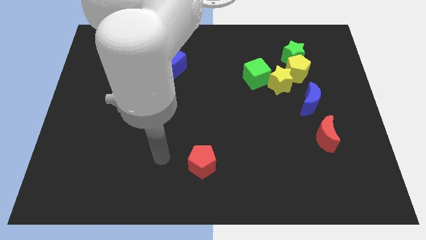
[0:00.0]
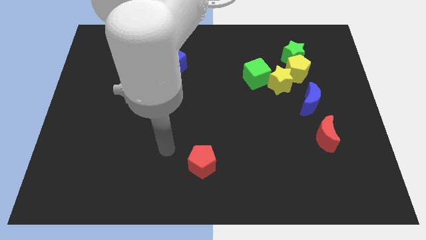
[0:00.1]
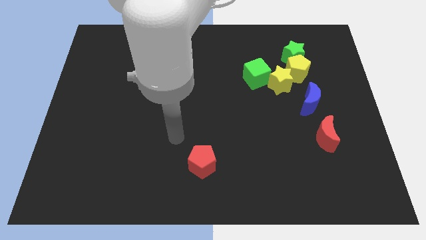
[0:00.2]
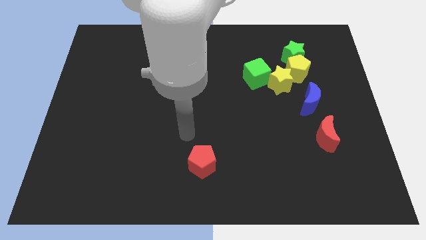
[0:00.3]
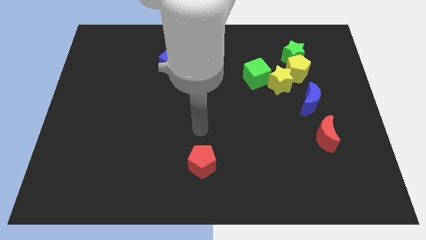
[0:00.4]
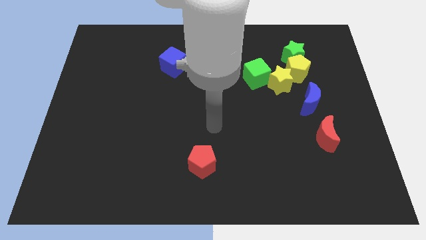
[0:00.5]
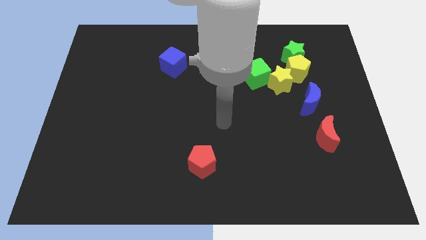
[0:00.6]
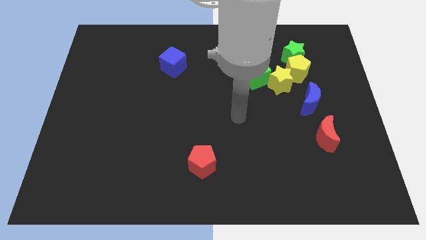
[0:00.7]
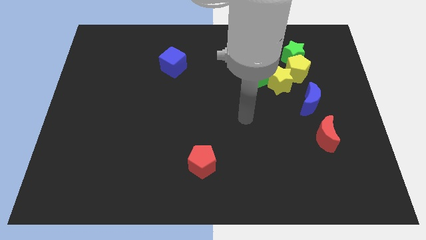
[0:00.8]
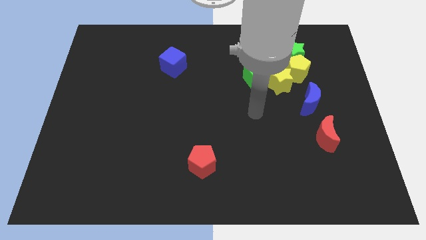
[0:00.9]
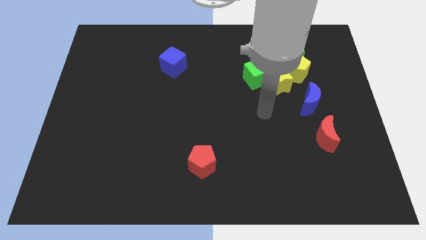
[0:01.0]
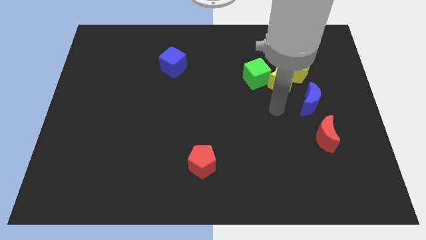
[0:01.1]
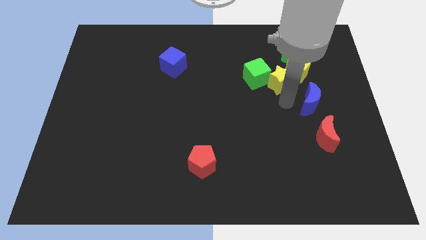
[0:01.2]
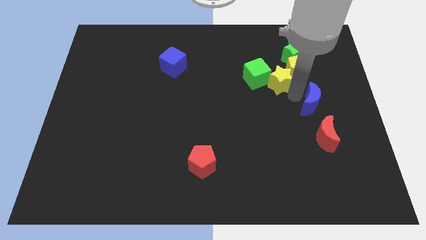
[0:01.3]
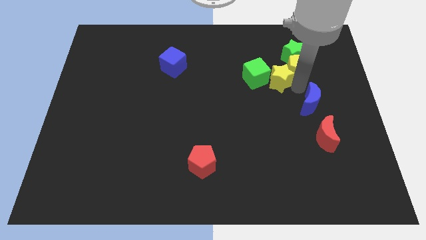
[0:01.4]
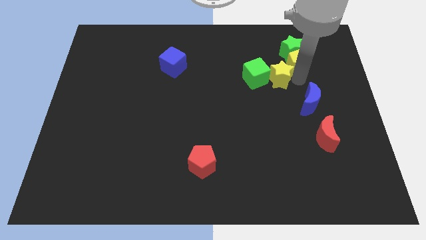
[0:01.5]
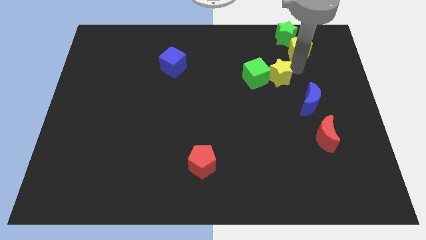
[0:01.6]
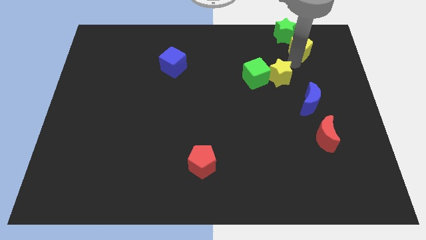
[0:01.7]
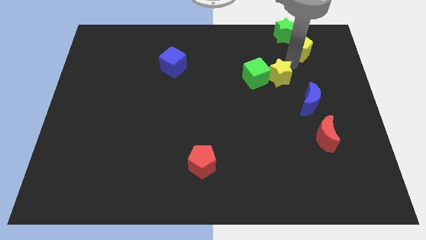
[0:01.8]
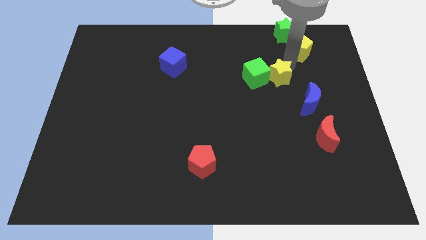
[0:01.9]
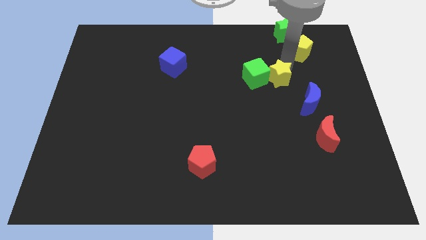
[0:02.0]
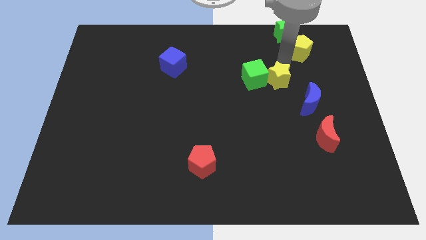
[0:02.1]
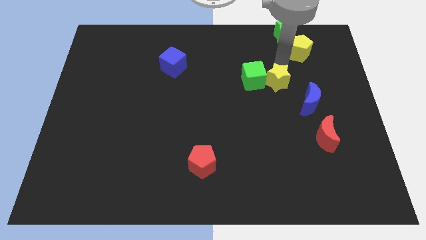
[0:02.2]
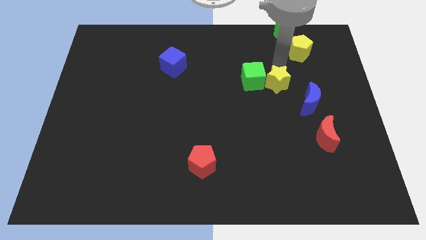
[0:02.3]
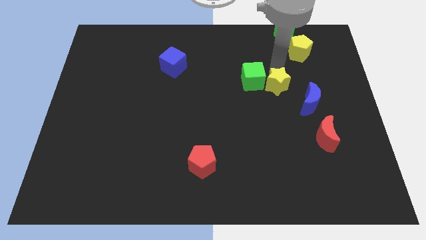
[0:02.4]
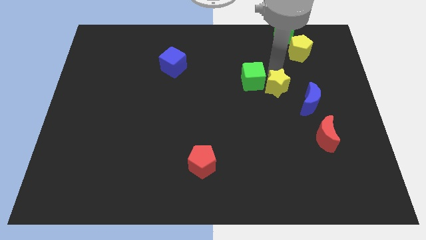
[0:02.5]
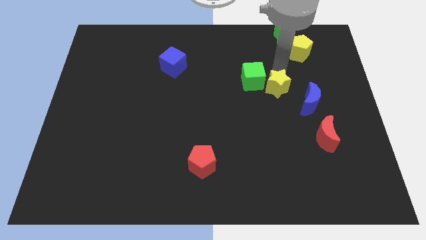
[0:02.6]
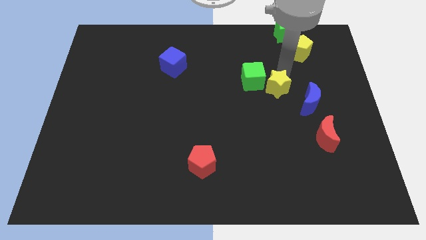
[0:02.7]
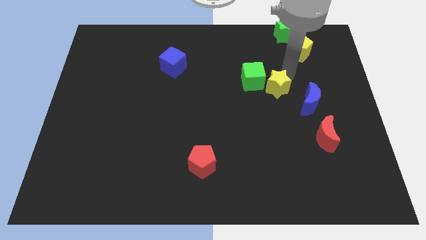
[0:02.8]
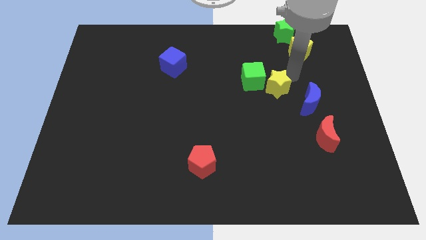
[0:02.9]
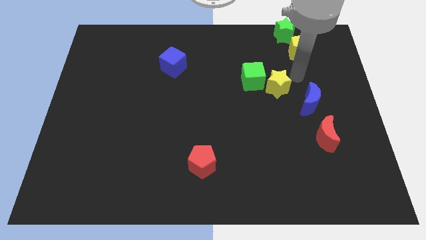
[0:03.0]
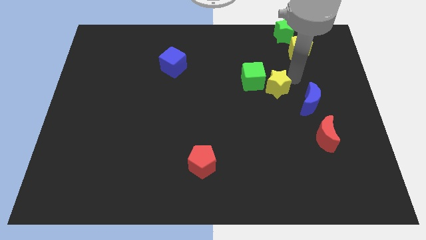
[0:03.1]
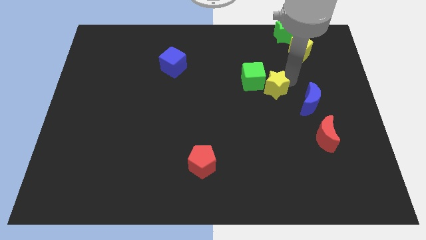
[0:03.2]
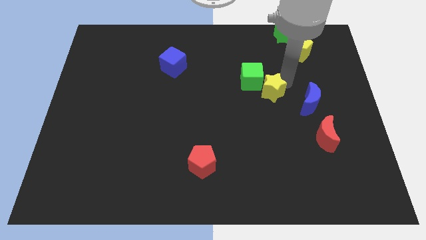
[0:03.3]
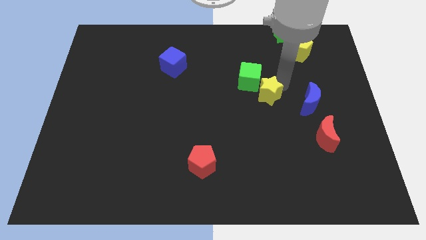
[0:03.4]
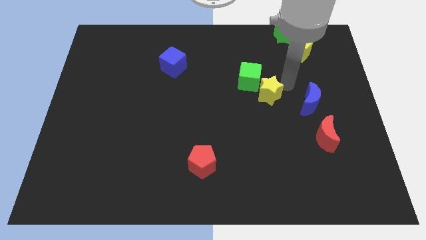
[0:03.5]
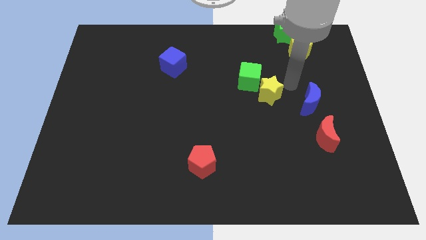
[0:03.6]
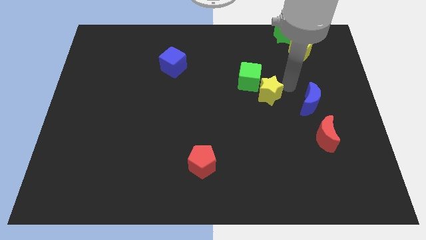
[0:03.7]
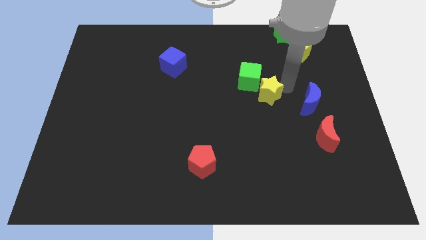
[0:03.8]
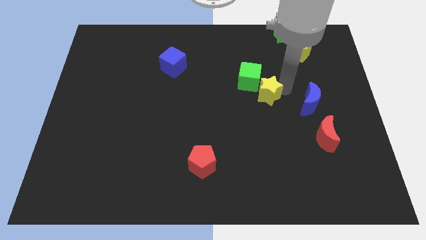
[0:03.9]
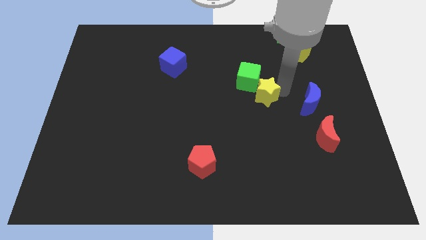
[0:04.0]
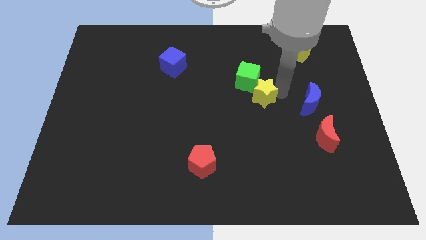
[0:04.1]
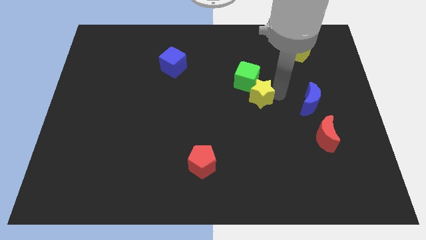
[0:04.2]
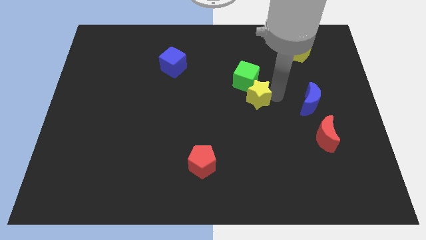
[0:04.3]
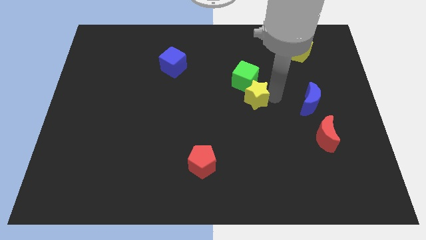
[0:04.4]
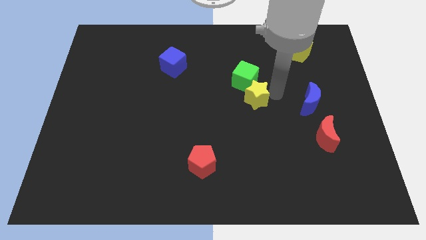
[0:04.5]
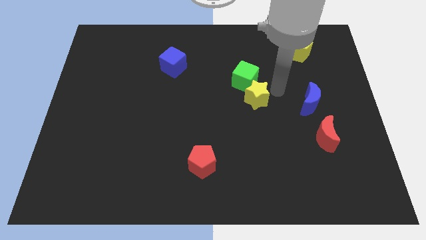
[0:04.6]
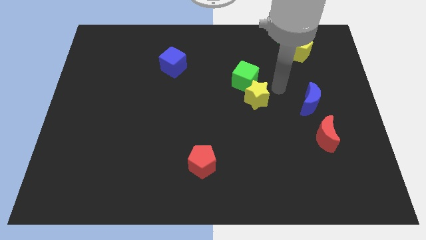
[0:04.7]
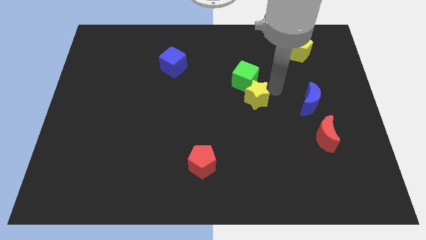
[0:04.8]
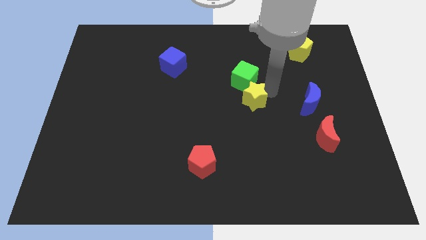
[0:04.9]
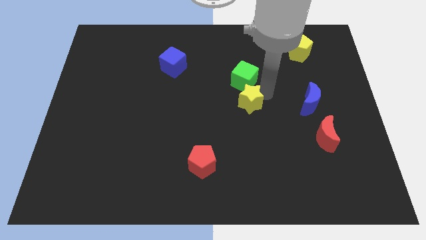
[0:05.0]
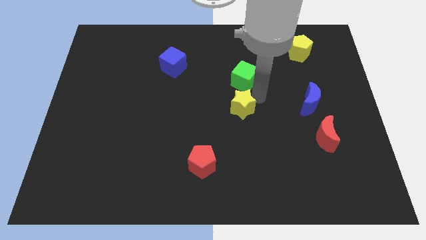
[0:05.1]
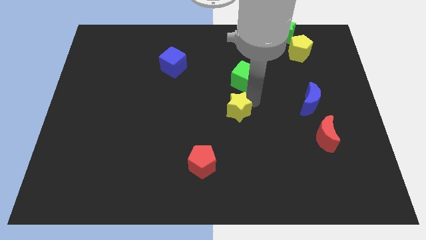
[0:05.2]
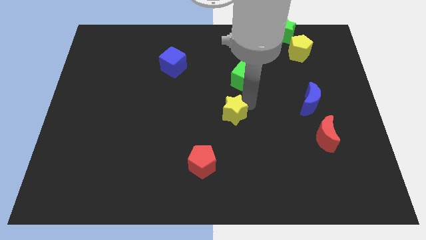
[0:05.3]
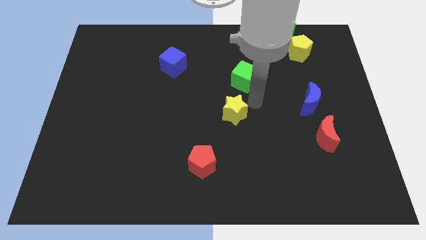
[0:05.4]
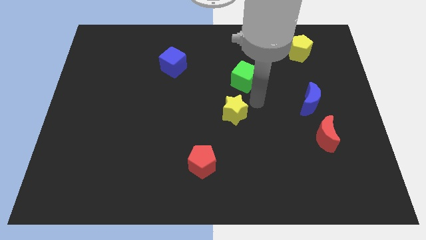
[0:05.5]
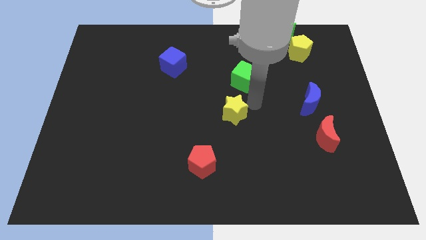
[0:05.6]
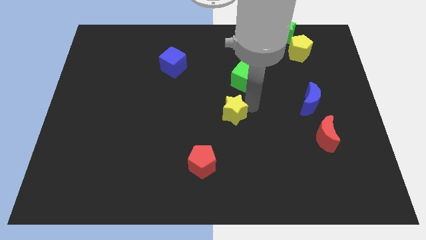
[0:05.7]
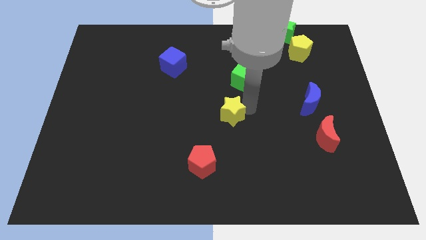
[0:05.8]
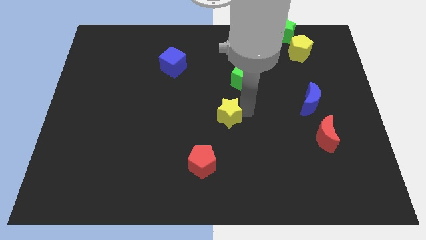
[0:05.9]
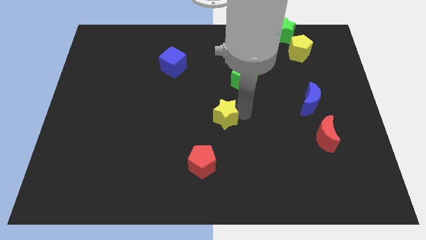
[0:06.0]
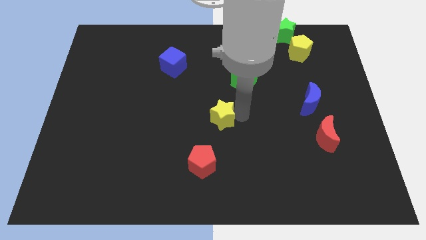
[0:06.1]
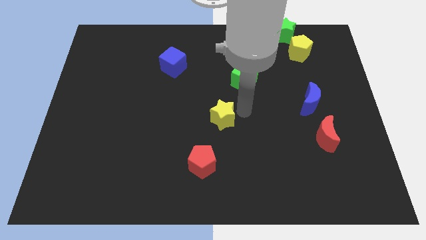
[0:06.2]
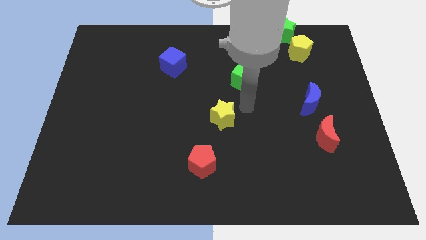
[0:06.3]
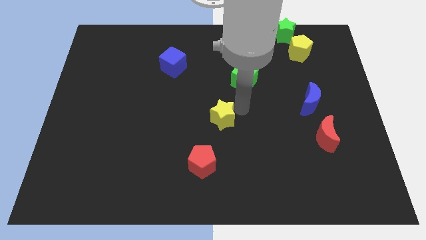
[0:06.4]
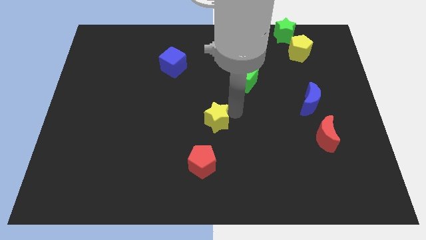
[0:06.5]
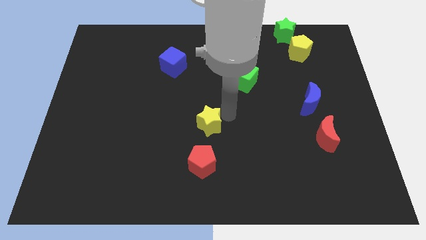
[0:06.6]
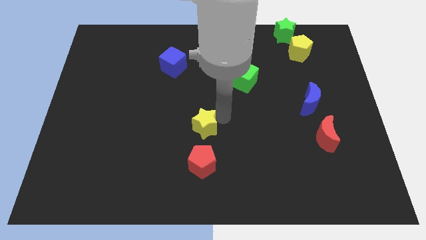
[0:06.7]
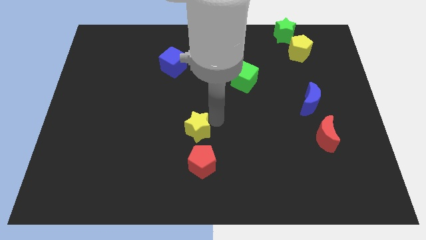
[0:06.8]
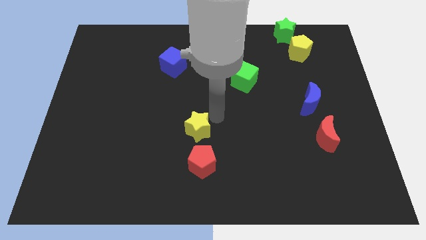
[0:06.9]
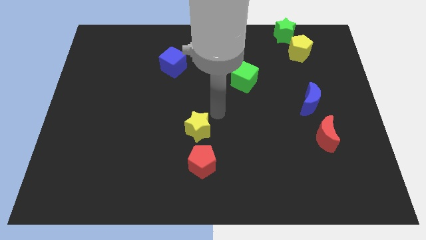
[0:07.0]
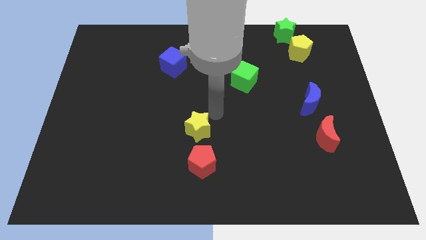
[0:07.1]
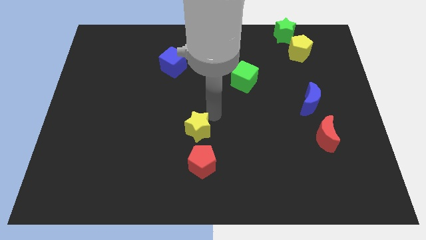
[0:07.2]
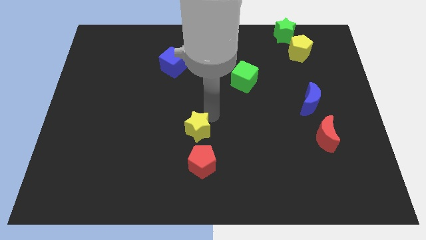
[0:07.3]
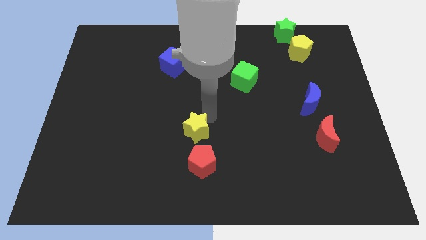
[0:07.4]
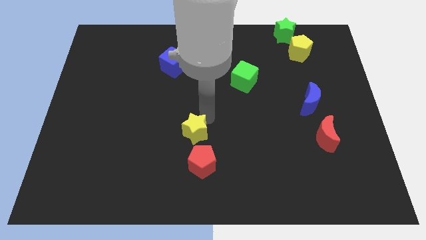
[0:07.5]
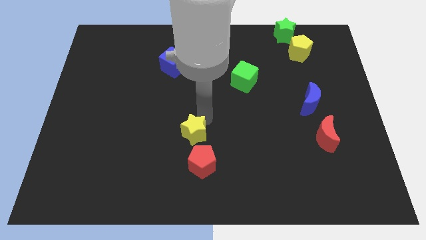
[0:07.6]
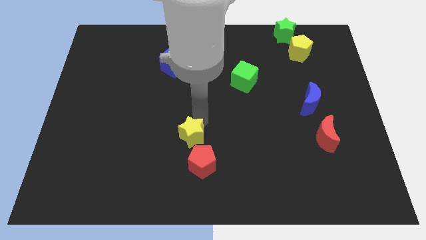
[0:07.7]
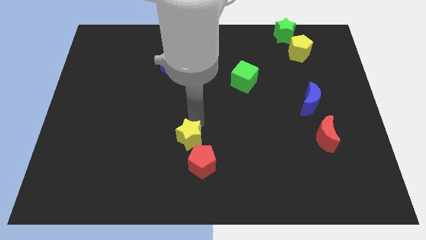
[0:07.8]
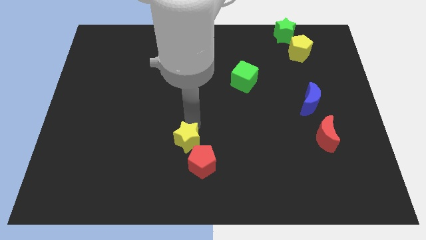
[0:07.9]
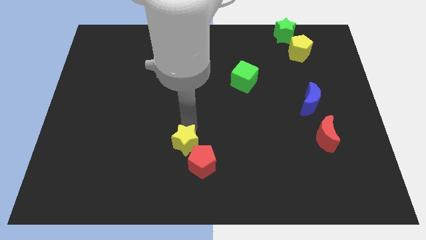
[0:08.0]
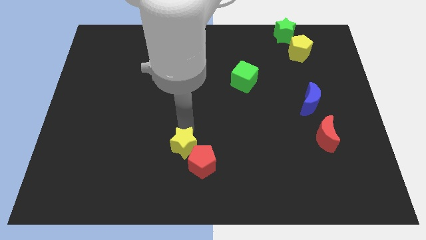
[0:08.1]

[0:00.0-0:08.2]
put the yellow star to the left side of the red pentagon
